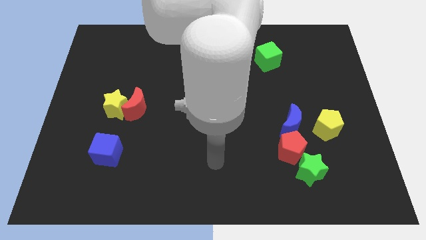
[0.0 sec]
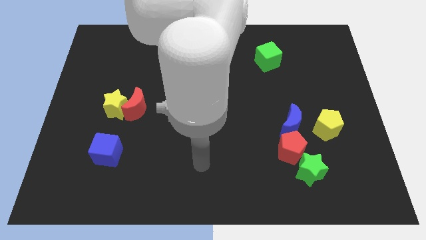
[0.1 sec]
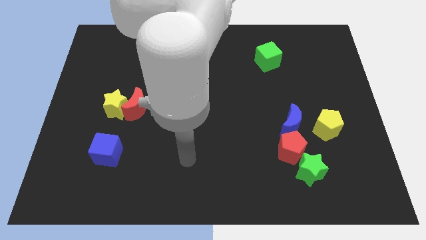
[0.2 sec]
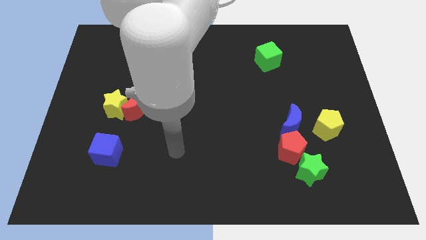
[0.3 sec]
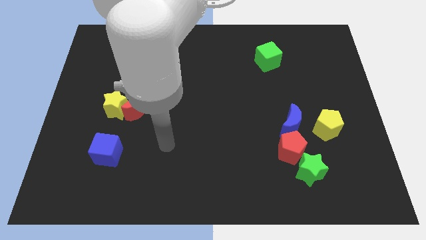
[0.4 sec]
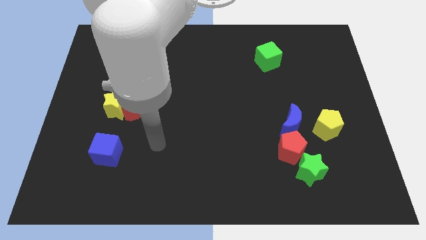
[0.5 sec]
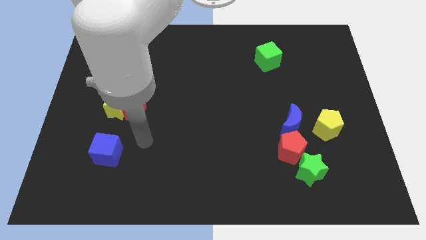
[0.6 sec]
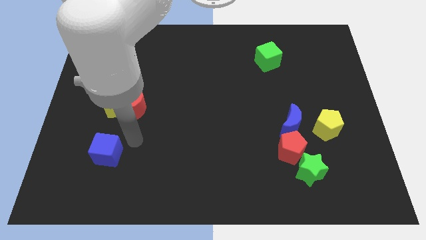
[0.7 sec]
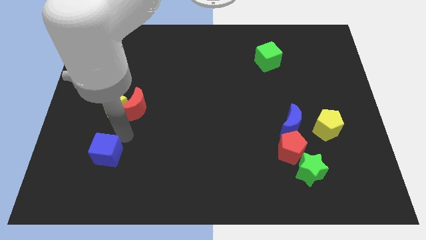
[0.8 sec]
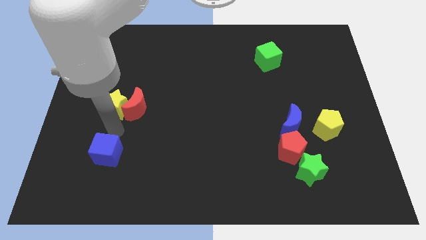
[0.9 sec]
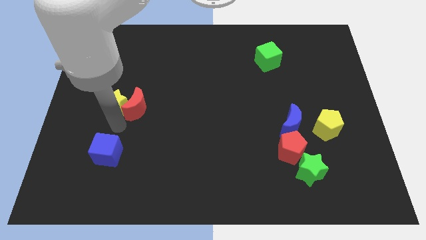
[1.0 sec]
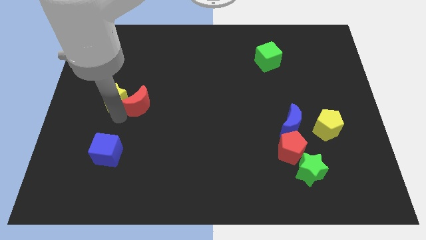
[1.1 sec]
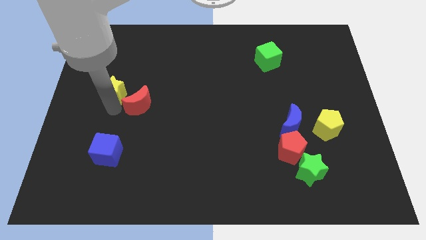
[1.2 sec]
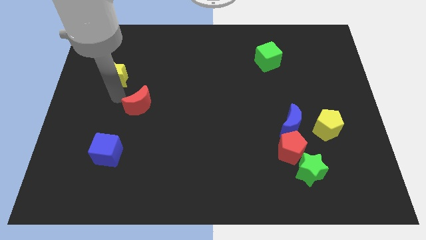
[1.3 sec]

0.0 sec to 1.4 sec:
pull the red moon apart from the yellow star

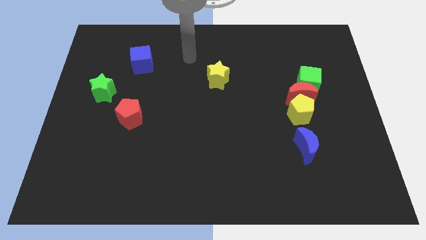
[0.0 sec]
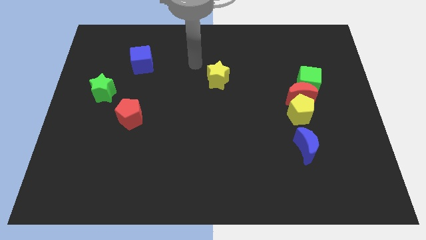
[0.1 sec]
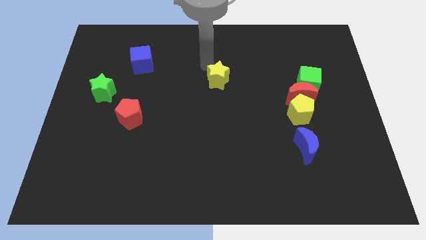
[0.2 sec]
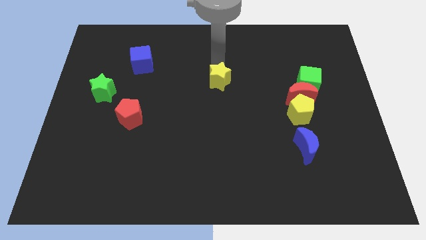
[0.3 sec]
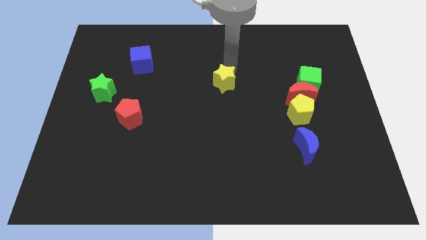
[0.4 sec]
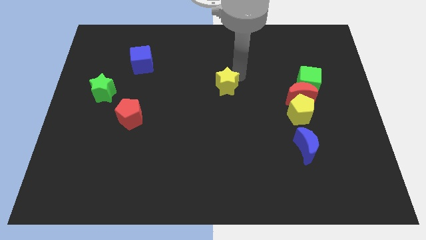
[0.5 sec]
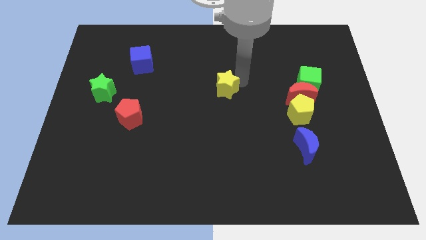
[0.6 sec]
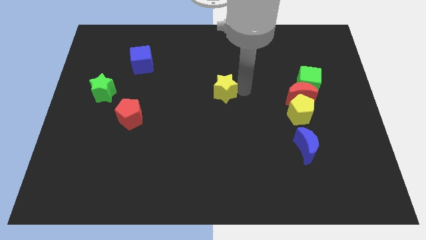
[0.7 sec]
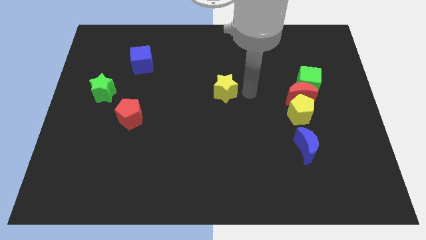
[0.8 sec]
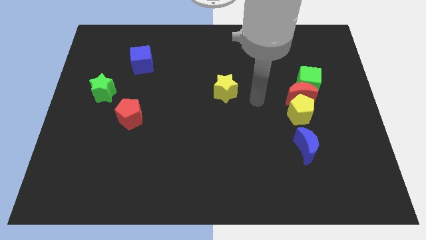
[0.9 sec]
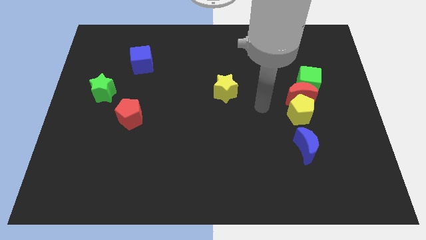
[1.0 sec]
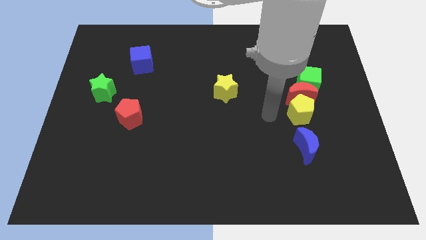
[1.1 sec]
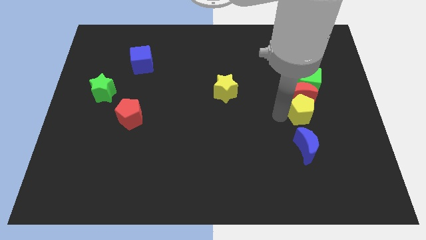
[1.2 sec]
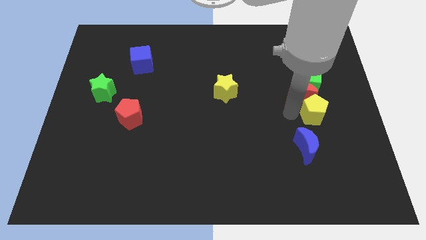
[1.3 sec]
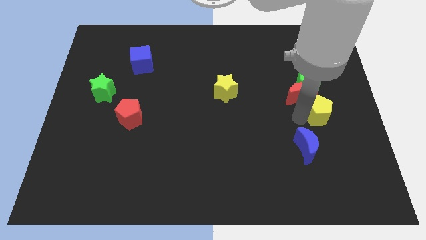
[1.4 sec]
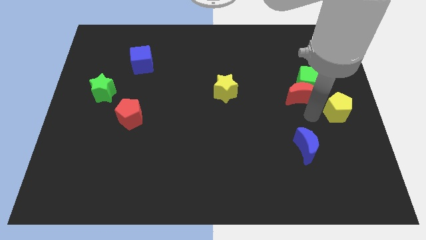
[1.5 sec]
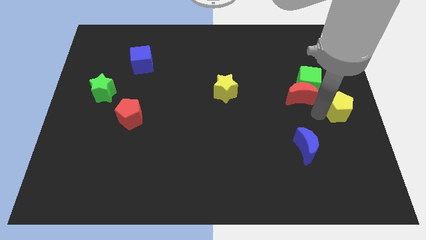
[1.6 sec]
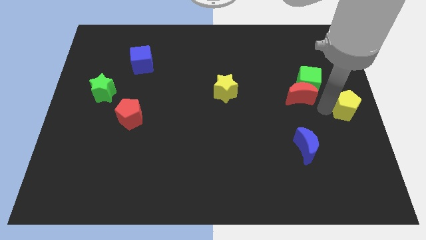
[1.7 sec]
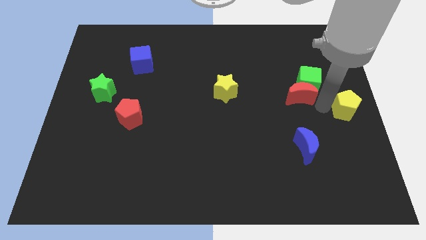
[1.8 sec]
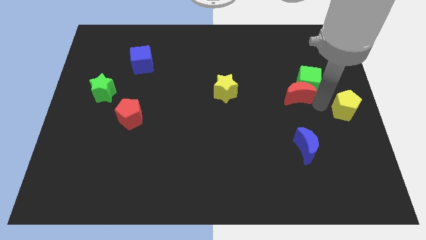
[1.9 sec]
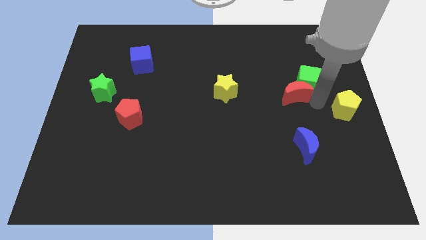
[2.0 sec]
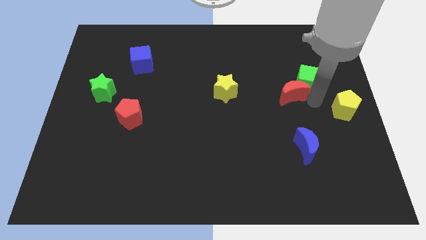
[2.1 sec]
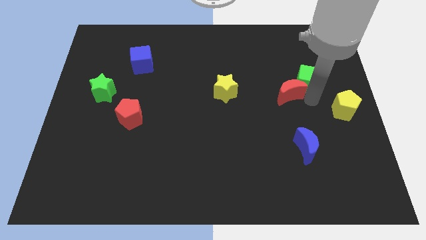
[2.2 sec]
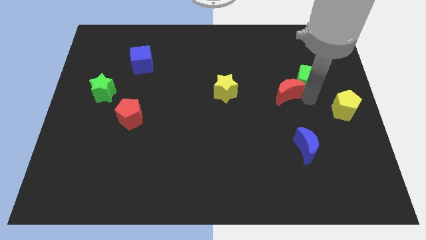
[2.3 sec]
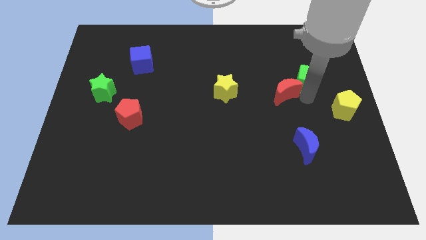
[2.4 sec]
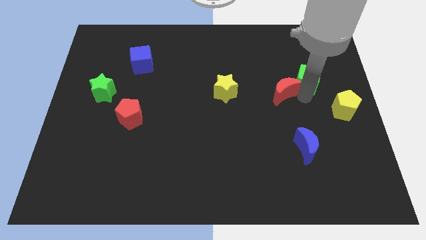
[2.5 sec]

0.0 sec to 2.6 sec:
separate the red moon from the green cube and yellow pentagon

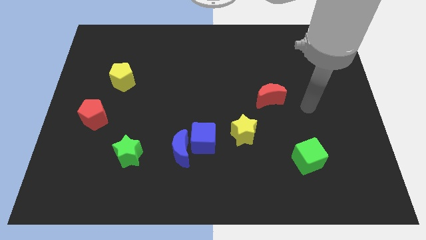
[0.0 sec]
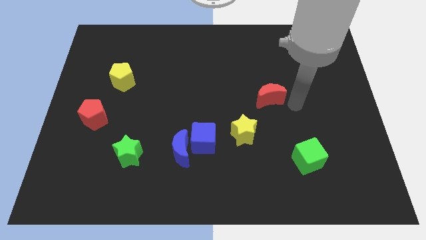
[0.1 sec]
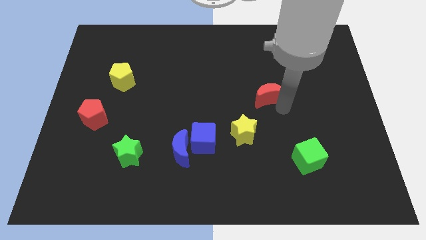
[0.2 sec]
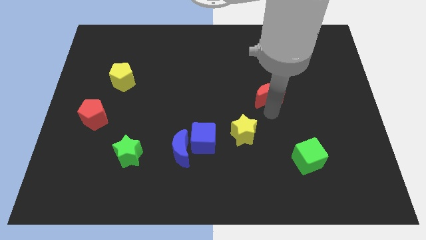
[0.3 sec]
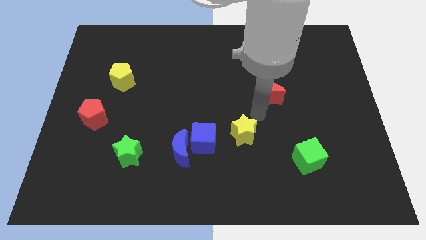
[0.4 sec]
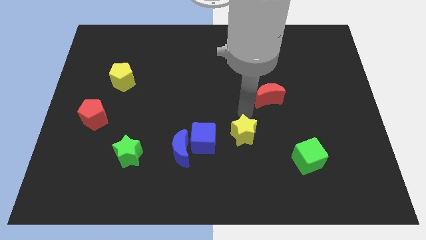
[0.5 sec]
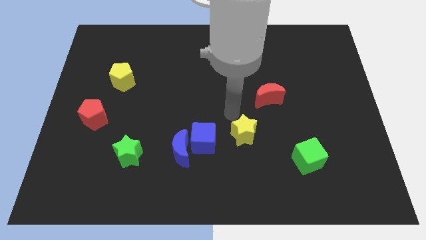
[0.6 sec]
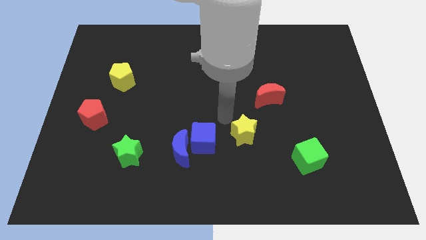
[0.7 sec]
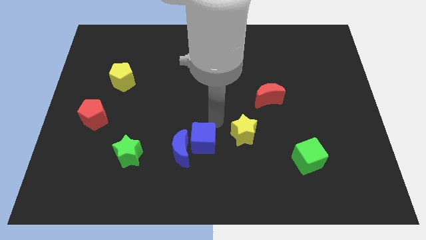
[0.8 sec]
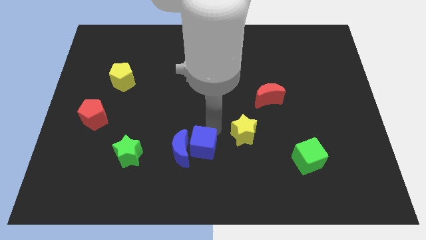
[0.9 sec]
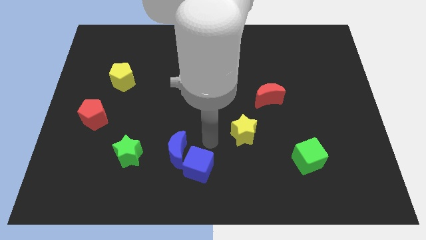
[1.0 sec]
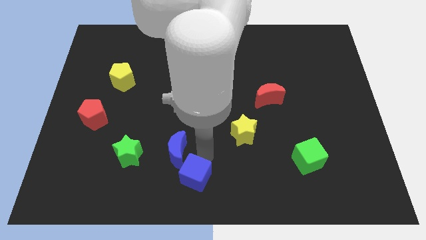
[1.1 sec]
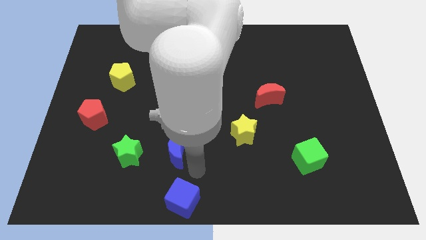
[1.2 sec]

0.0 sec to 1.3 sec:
separate the blue moon from the blue cube

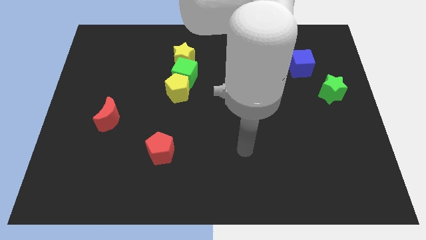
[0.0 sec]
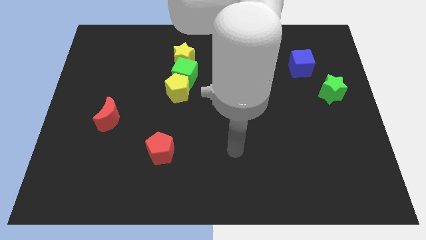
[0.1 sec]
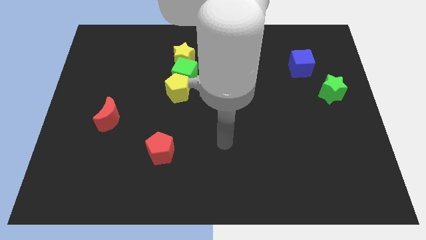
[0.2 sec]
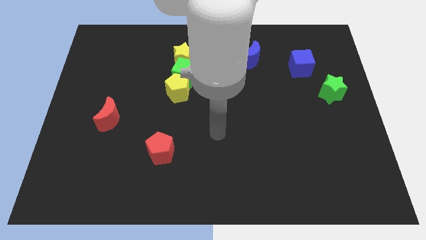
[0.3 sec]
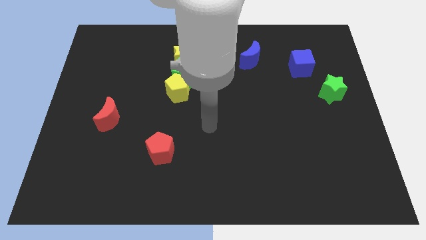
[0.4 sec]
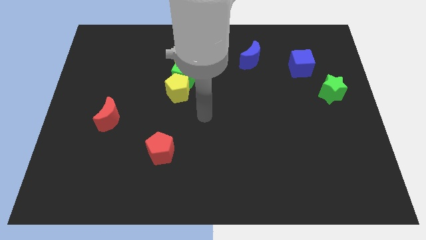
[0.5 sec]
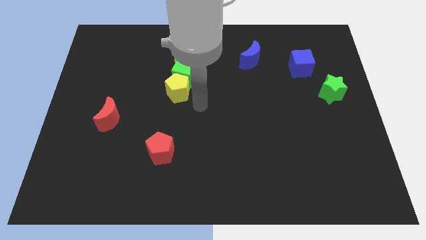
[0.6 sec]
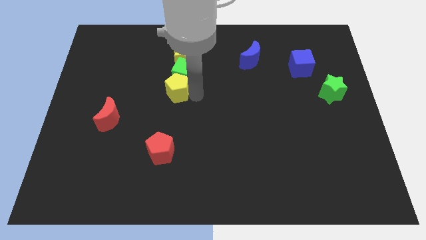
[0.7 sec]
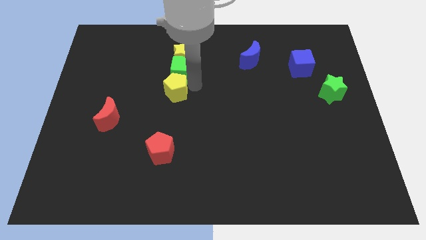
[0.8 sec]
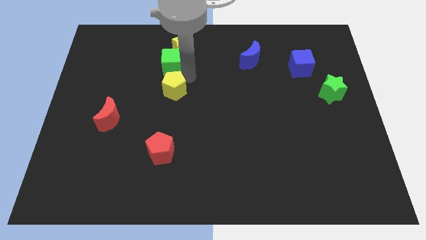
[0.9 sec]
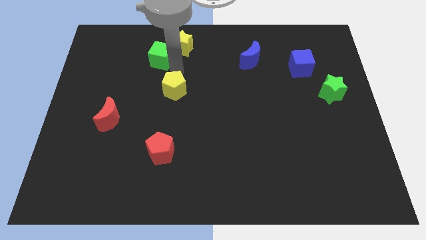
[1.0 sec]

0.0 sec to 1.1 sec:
separate the yellow pentagon from the green cube

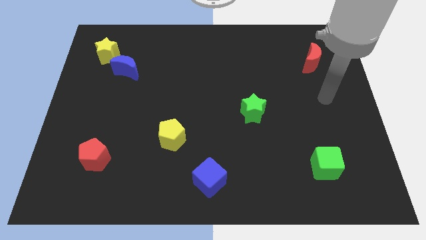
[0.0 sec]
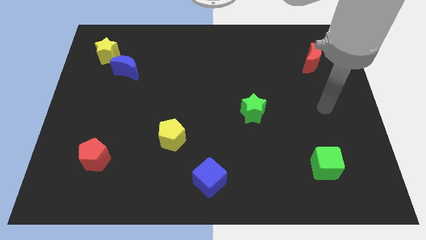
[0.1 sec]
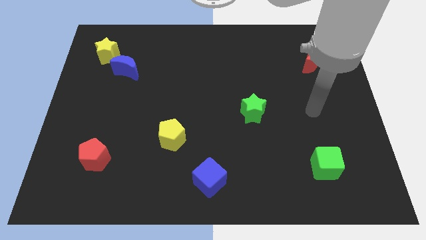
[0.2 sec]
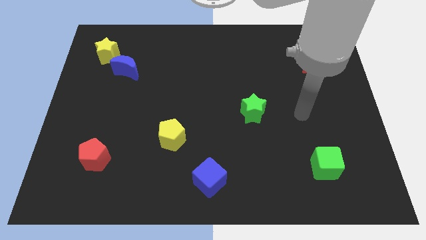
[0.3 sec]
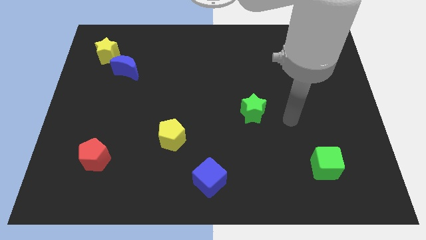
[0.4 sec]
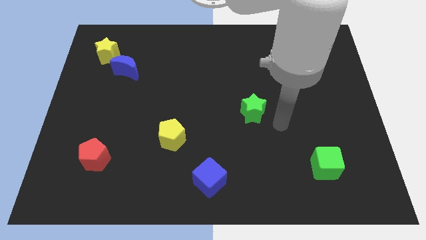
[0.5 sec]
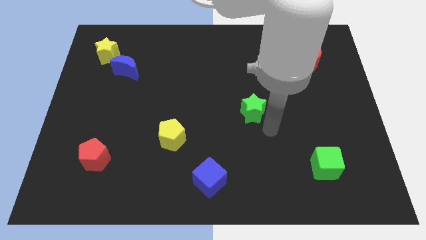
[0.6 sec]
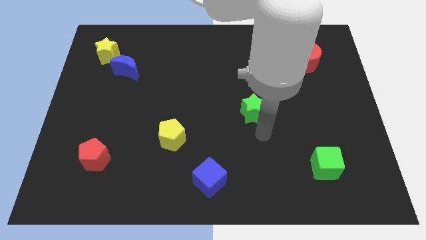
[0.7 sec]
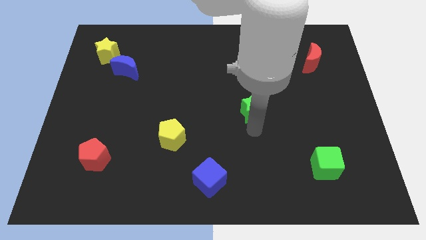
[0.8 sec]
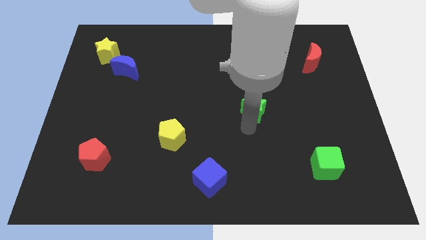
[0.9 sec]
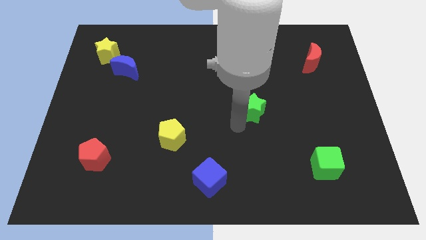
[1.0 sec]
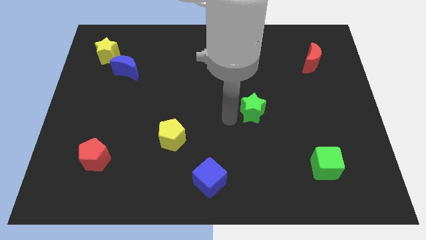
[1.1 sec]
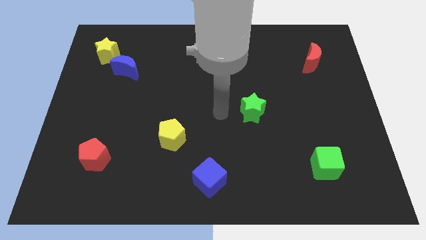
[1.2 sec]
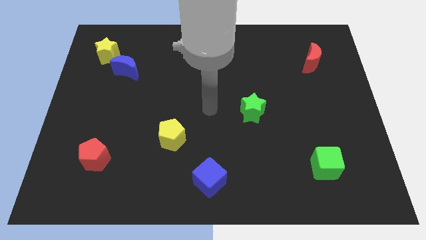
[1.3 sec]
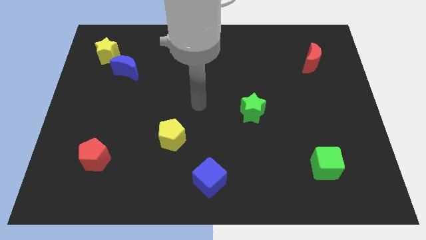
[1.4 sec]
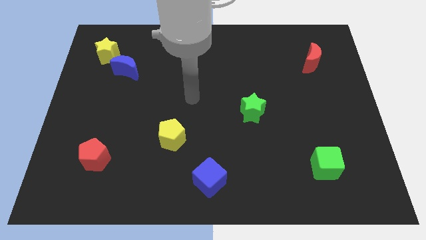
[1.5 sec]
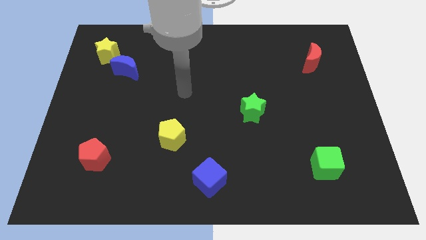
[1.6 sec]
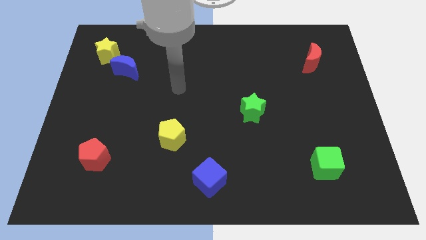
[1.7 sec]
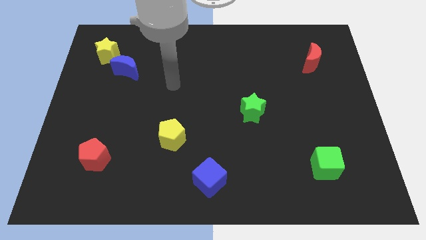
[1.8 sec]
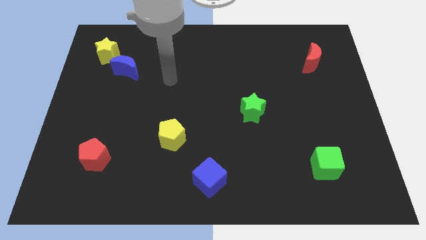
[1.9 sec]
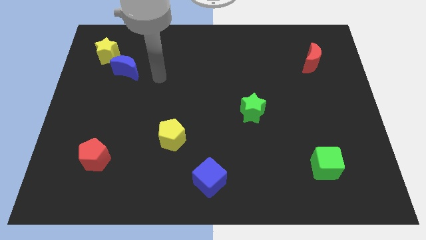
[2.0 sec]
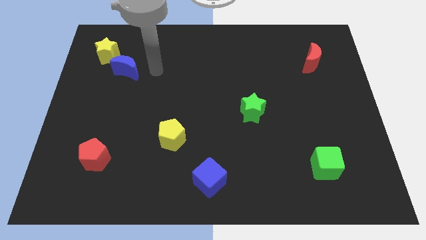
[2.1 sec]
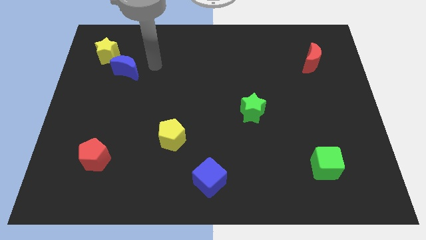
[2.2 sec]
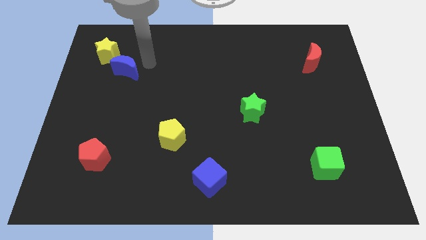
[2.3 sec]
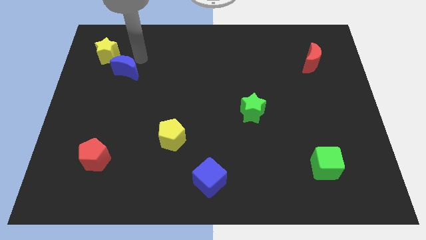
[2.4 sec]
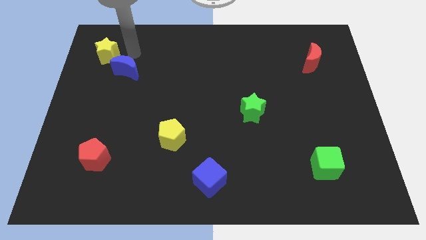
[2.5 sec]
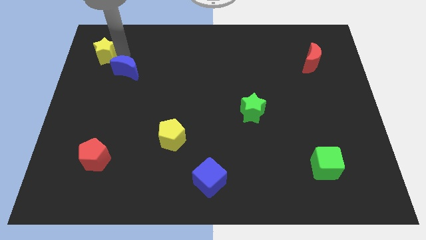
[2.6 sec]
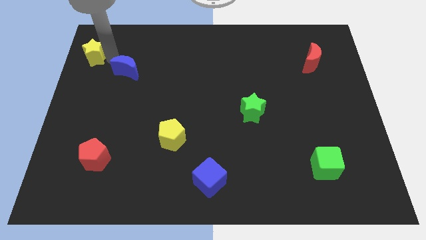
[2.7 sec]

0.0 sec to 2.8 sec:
separate the blue moon from the yellow star
